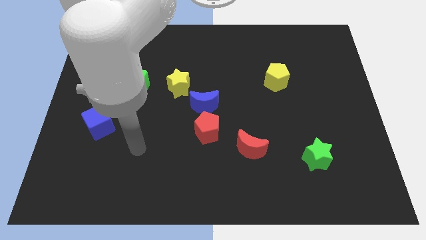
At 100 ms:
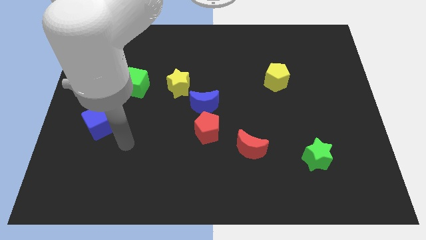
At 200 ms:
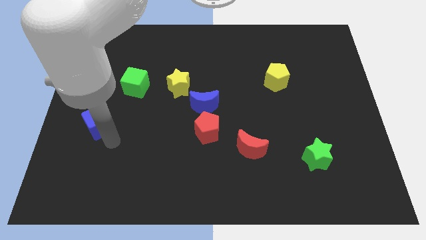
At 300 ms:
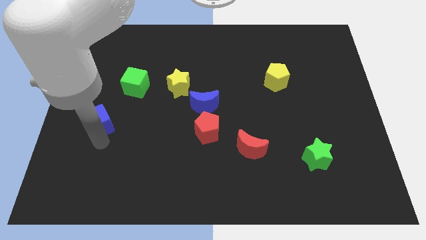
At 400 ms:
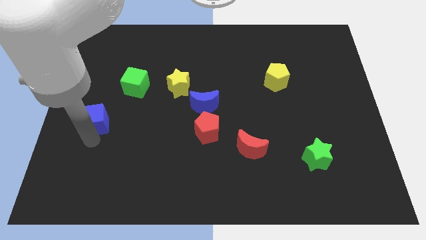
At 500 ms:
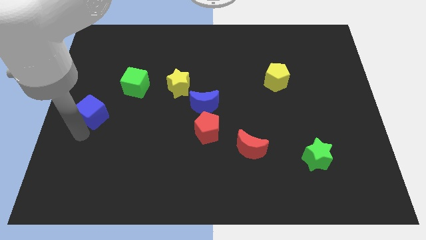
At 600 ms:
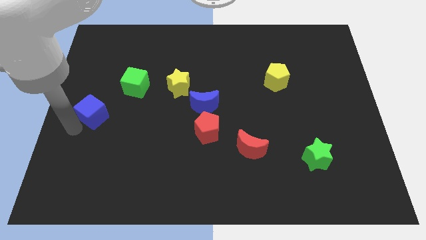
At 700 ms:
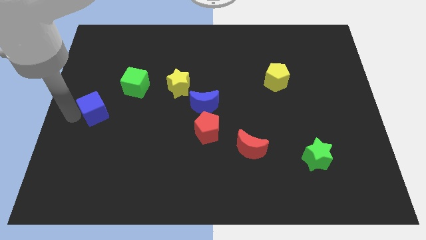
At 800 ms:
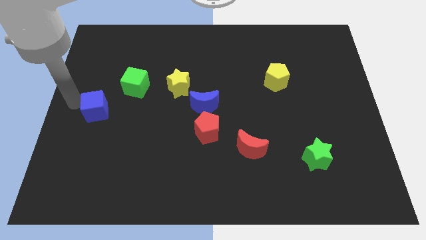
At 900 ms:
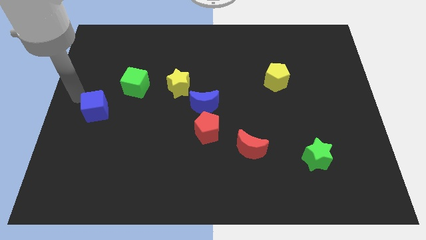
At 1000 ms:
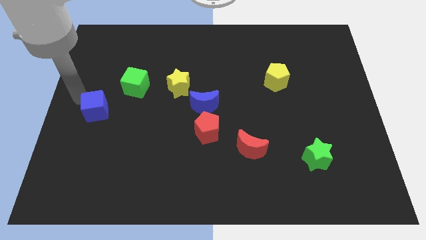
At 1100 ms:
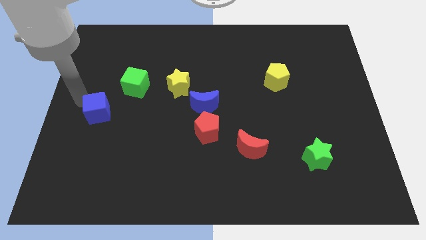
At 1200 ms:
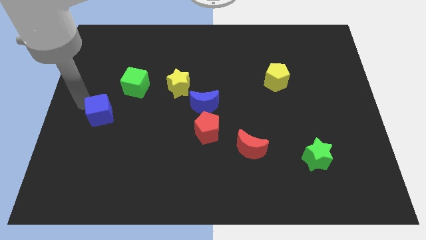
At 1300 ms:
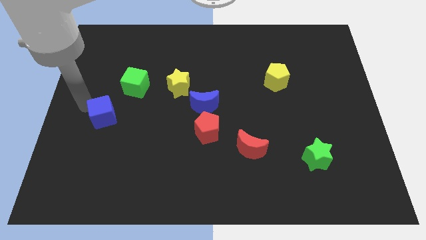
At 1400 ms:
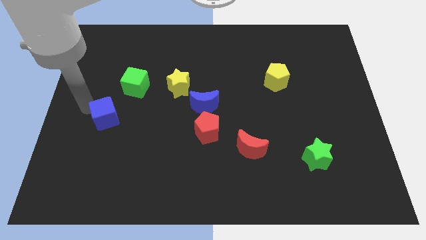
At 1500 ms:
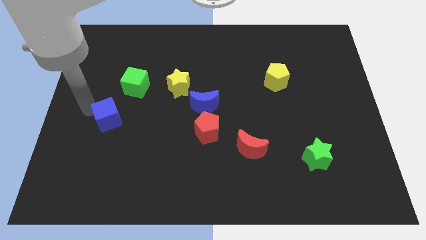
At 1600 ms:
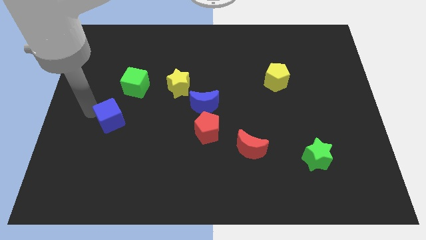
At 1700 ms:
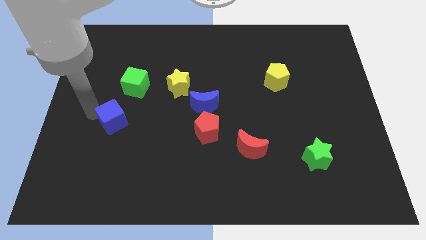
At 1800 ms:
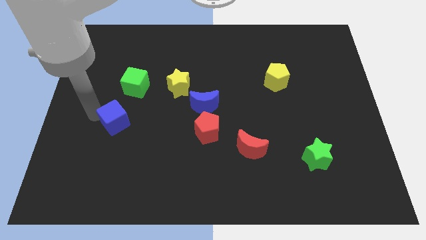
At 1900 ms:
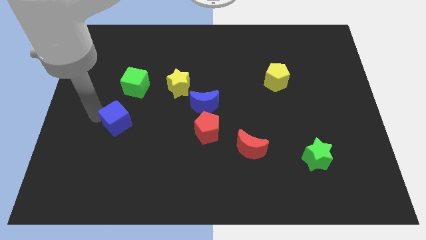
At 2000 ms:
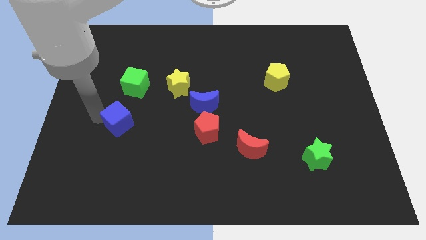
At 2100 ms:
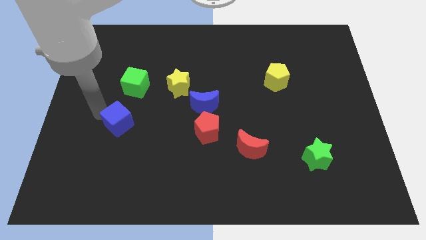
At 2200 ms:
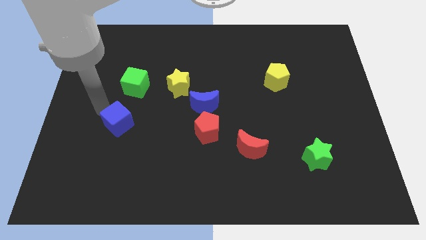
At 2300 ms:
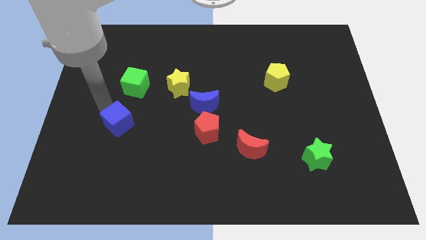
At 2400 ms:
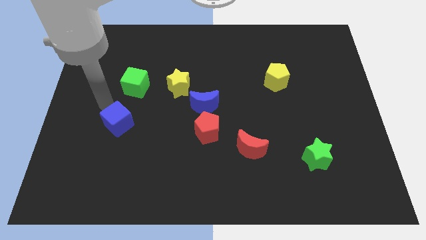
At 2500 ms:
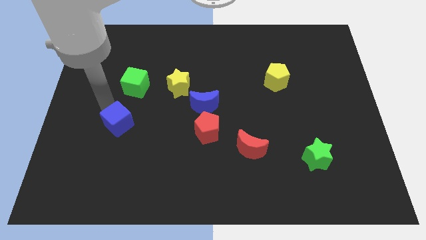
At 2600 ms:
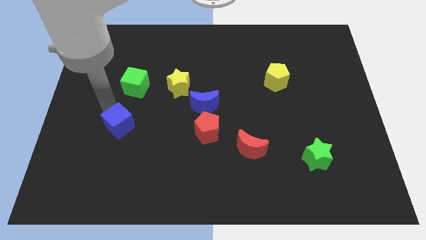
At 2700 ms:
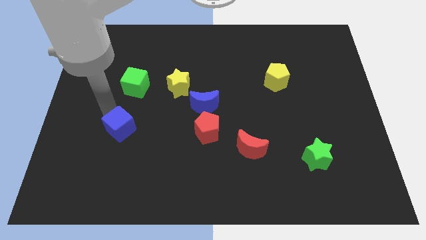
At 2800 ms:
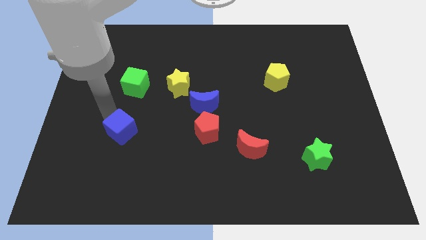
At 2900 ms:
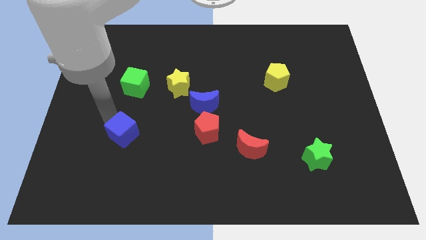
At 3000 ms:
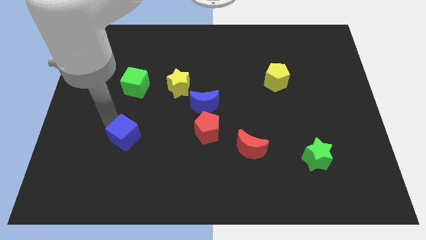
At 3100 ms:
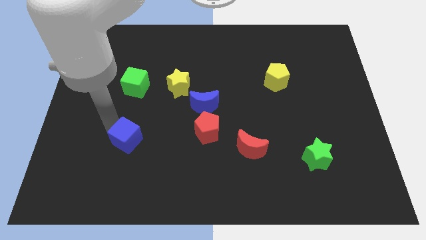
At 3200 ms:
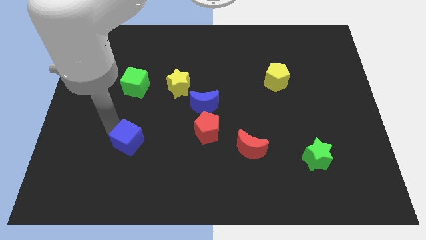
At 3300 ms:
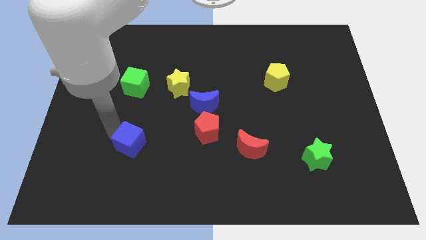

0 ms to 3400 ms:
slightly push the blue cube to the right

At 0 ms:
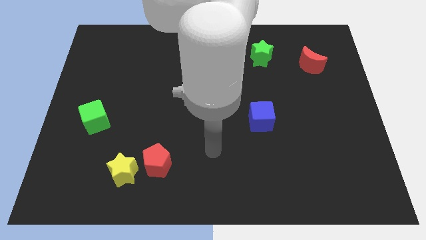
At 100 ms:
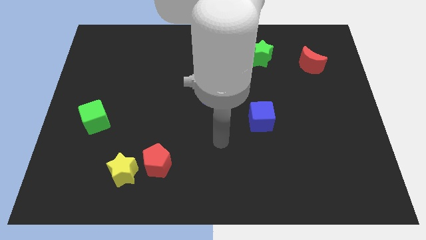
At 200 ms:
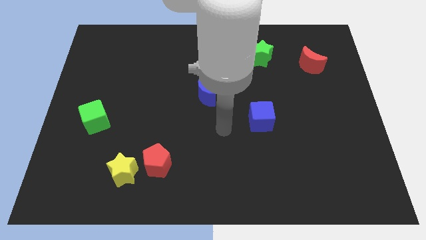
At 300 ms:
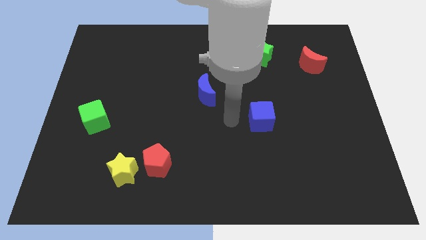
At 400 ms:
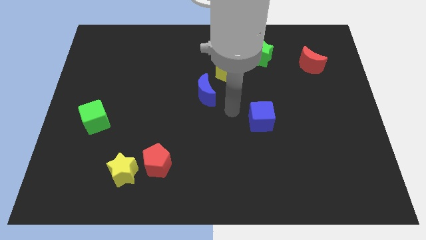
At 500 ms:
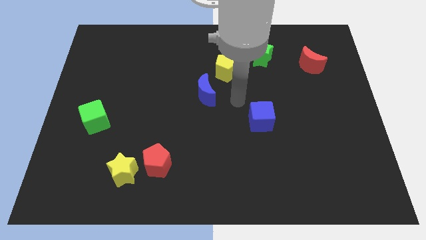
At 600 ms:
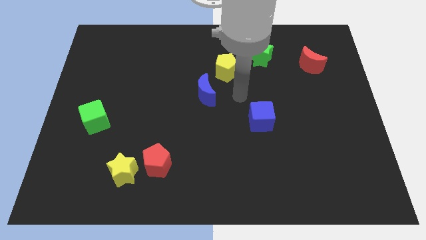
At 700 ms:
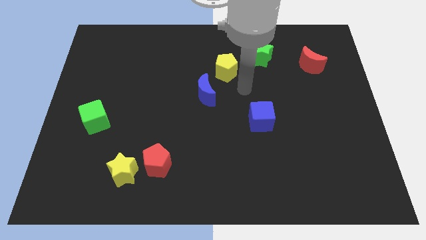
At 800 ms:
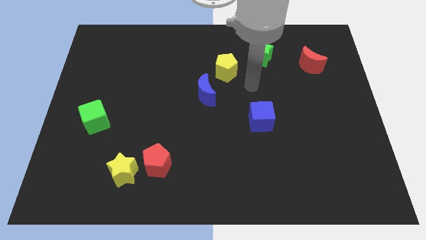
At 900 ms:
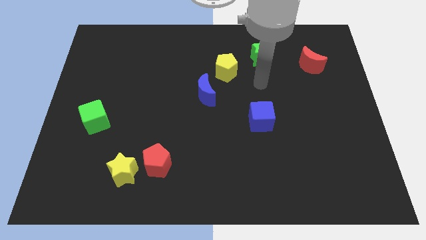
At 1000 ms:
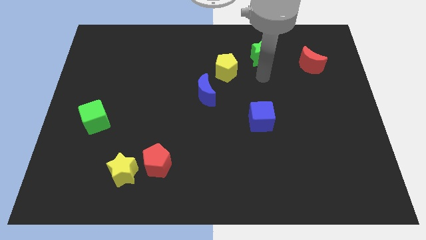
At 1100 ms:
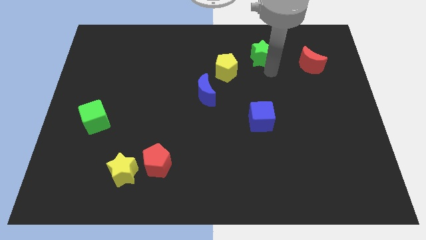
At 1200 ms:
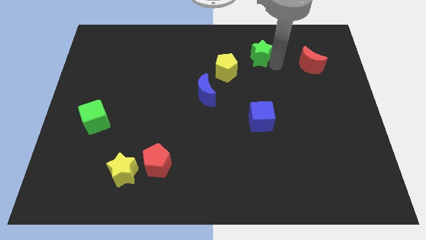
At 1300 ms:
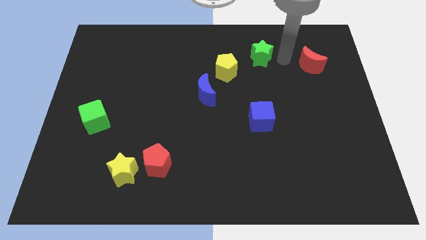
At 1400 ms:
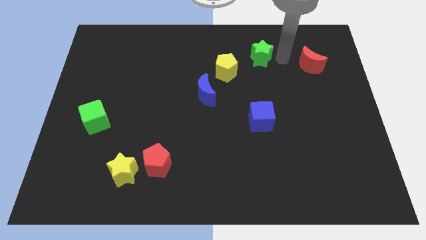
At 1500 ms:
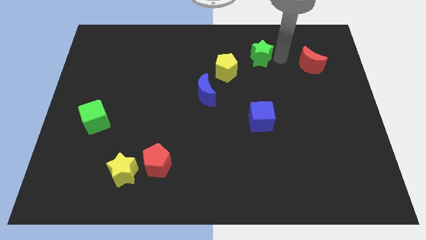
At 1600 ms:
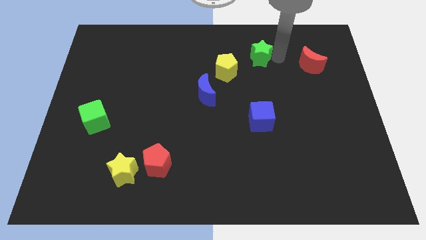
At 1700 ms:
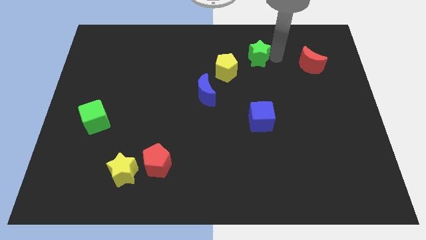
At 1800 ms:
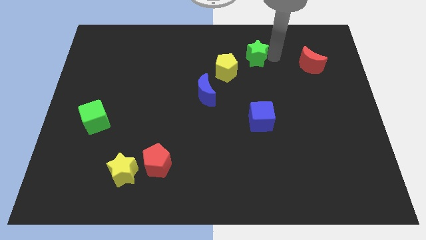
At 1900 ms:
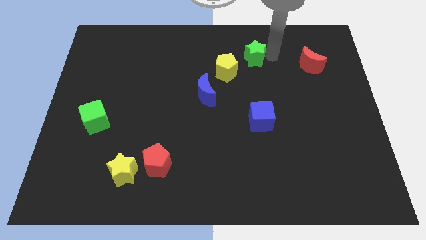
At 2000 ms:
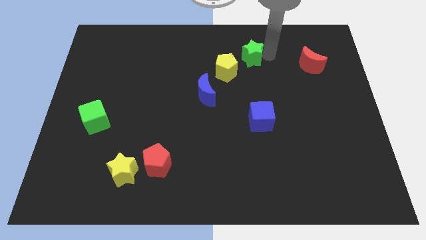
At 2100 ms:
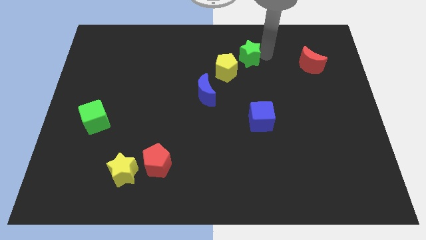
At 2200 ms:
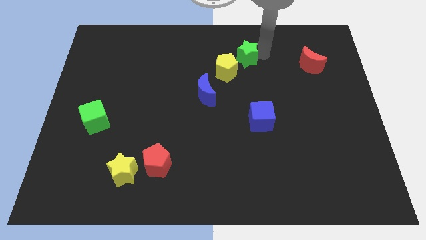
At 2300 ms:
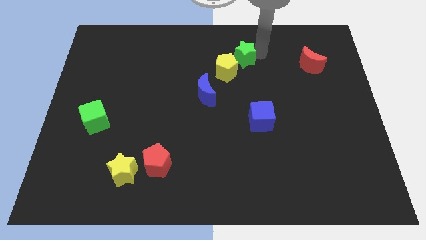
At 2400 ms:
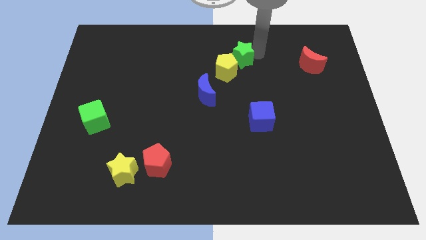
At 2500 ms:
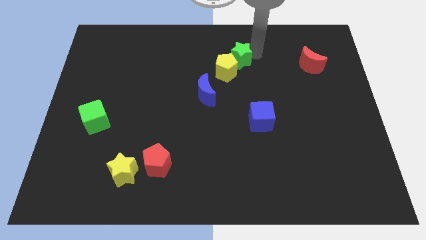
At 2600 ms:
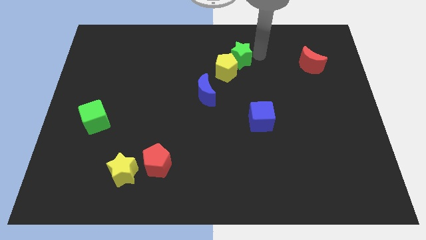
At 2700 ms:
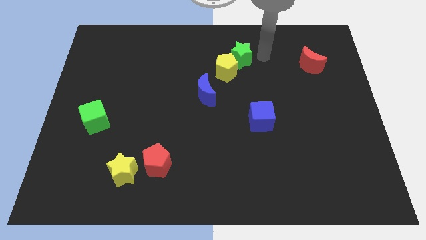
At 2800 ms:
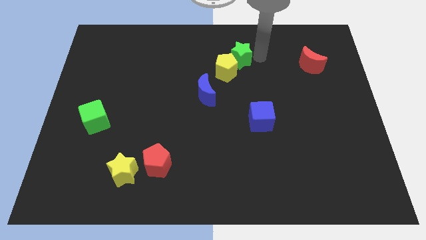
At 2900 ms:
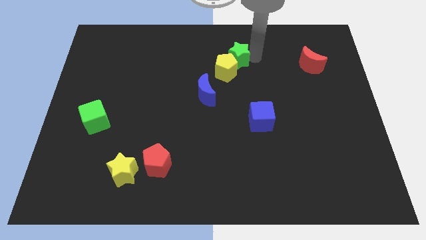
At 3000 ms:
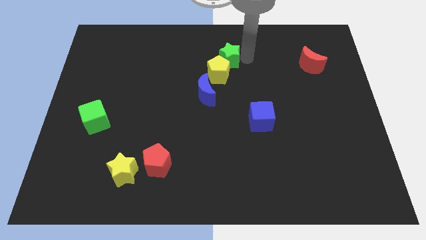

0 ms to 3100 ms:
move the green star somewhat left

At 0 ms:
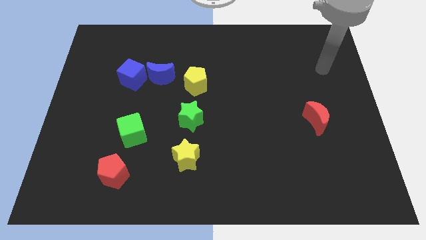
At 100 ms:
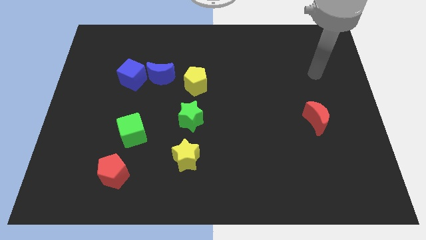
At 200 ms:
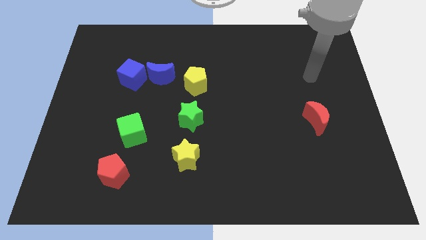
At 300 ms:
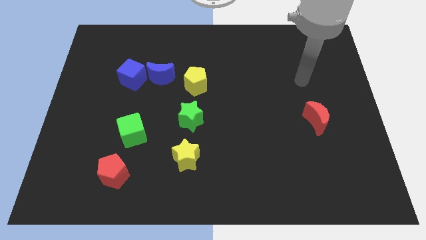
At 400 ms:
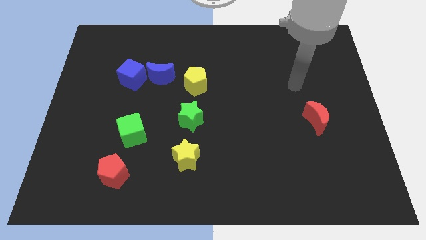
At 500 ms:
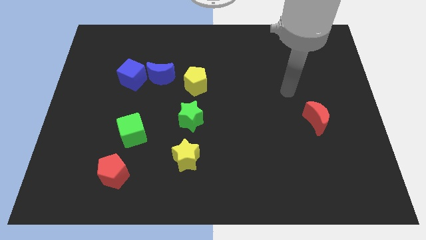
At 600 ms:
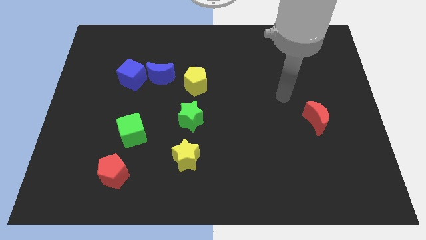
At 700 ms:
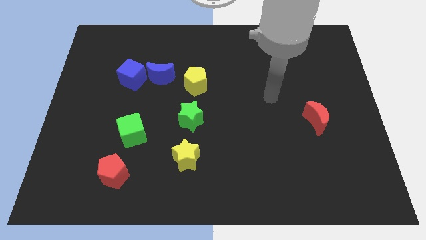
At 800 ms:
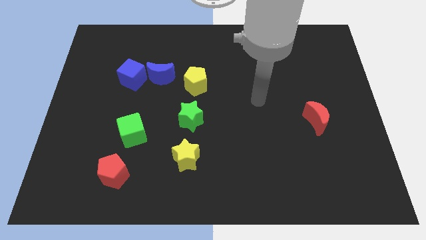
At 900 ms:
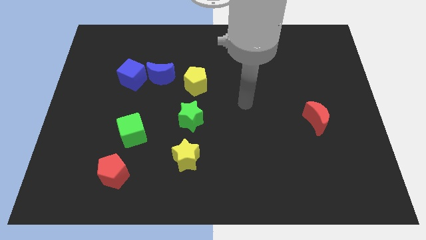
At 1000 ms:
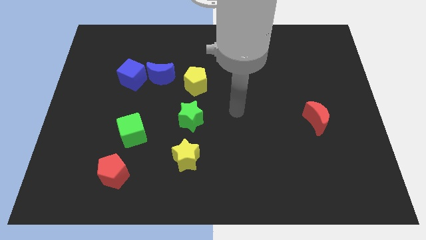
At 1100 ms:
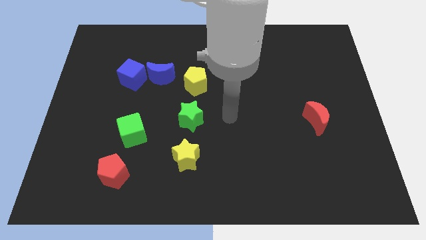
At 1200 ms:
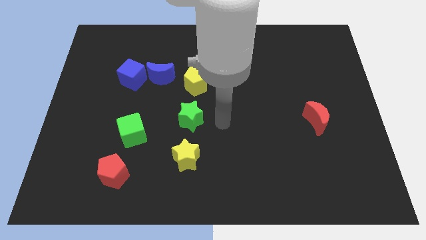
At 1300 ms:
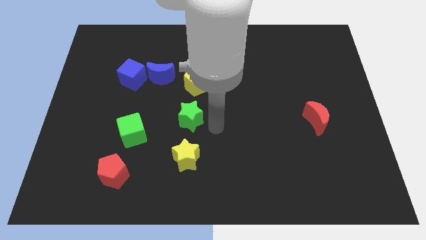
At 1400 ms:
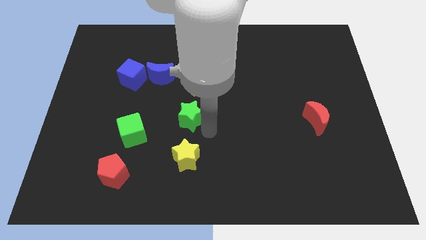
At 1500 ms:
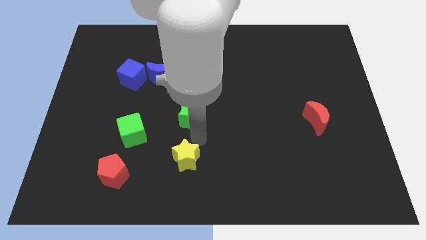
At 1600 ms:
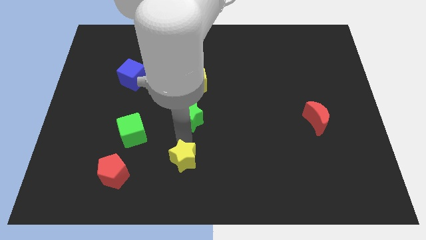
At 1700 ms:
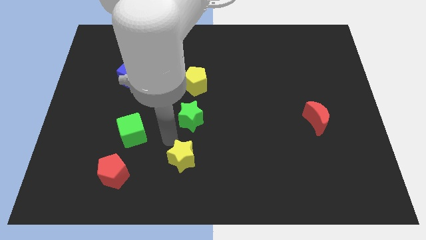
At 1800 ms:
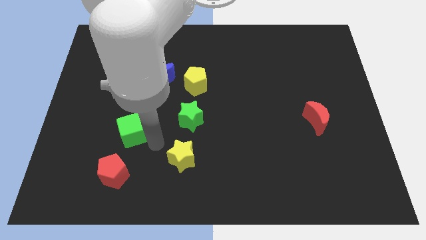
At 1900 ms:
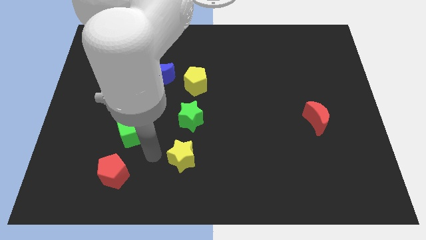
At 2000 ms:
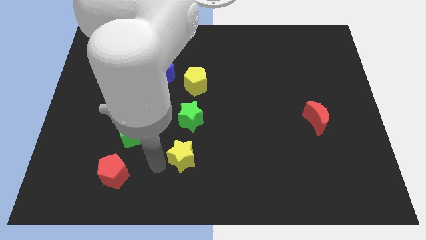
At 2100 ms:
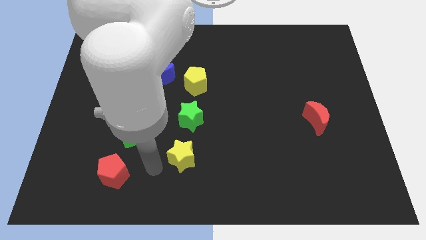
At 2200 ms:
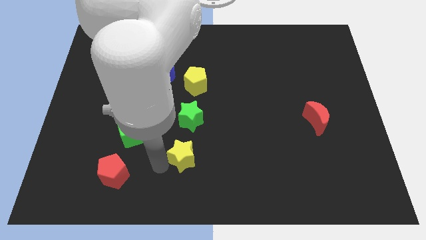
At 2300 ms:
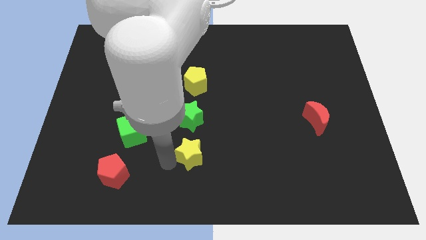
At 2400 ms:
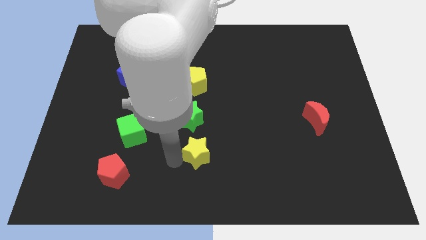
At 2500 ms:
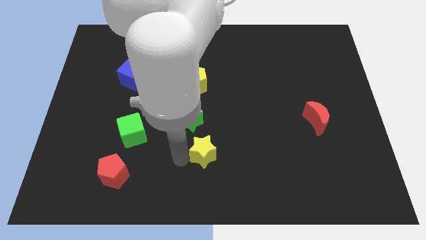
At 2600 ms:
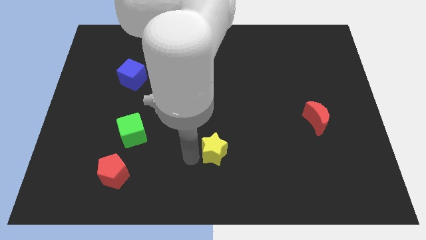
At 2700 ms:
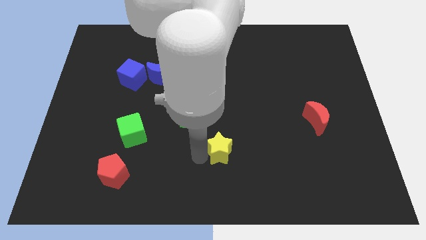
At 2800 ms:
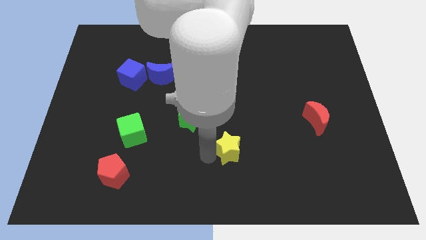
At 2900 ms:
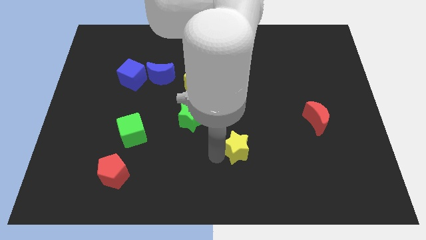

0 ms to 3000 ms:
slightly slide the yellow star up and right
